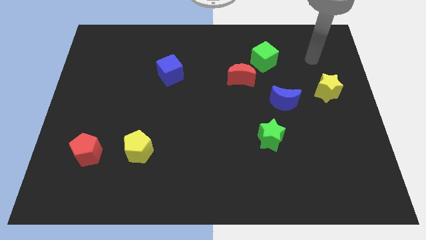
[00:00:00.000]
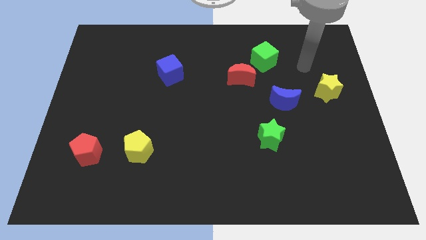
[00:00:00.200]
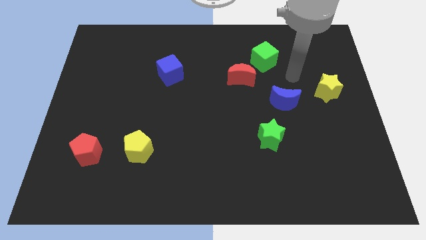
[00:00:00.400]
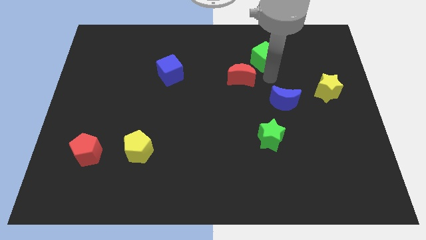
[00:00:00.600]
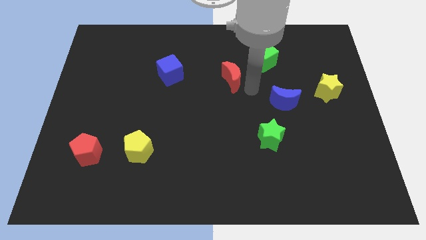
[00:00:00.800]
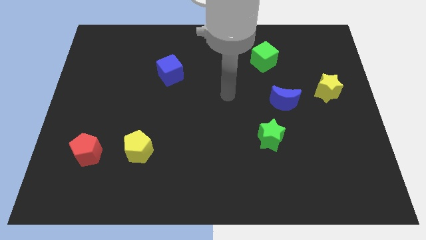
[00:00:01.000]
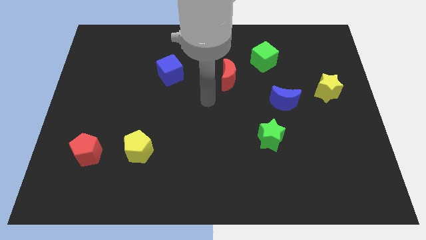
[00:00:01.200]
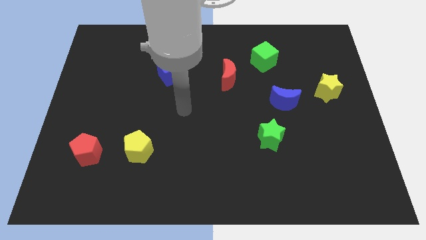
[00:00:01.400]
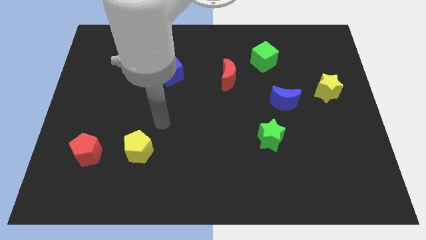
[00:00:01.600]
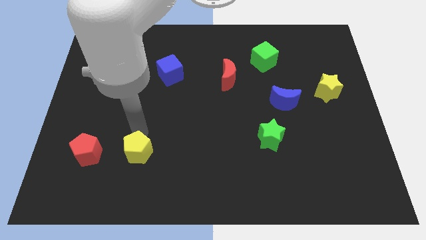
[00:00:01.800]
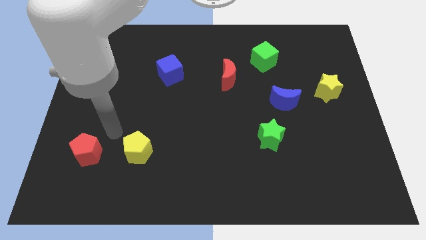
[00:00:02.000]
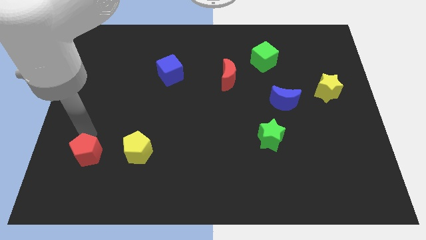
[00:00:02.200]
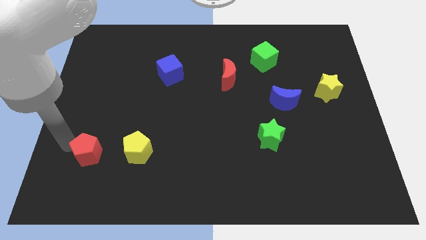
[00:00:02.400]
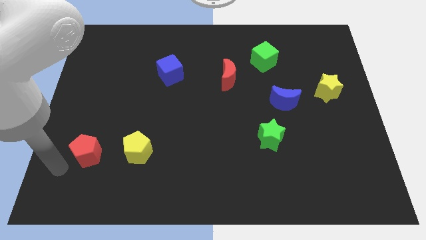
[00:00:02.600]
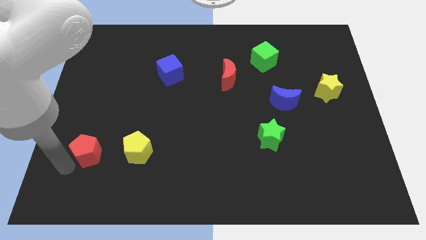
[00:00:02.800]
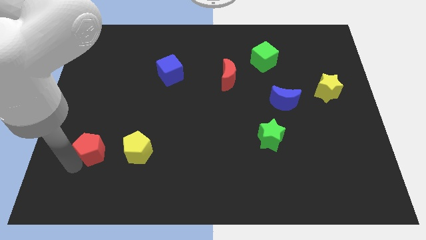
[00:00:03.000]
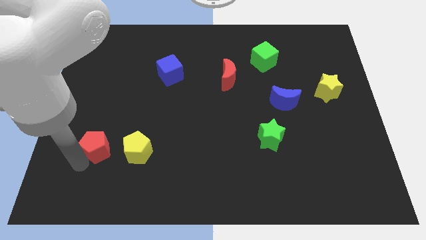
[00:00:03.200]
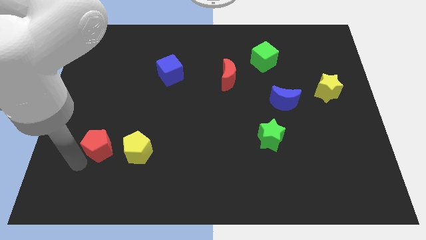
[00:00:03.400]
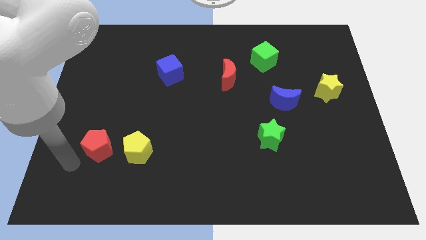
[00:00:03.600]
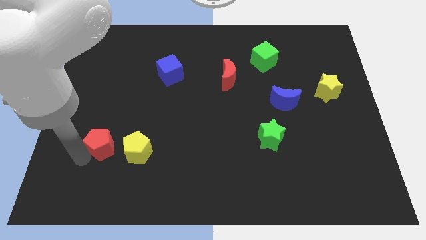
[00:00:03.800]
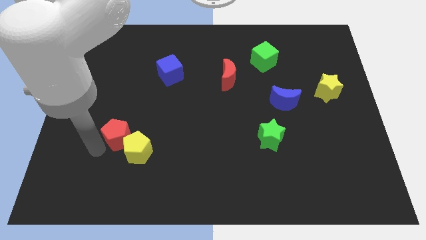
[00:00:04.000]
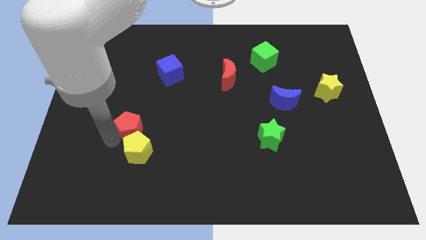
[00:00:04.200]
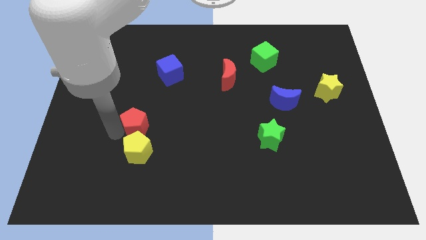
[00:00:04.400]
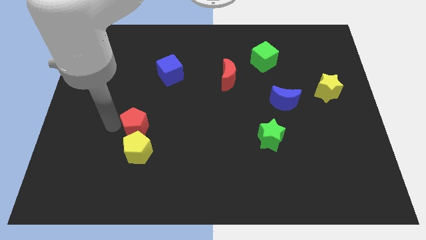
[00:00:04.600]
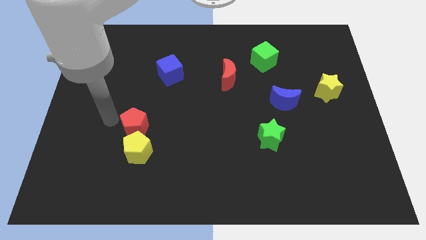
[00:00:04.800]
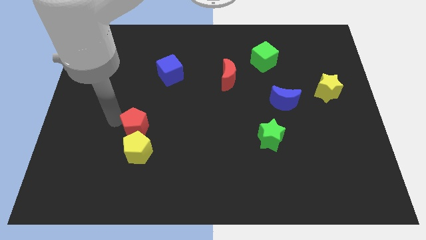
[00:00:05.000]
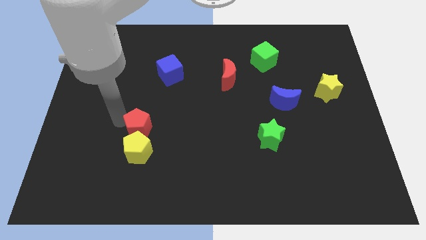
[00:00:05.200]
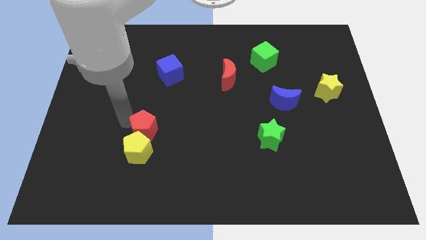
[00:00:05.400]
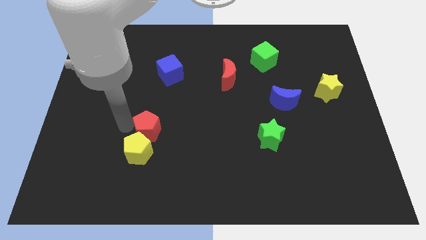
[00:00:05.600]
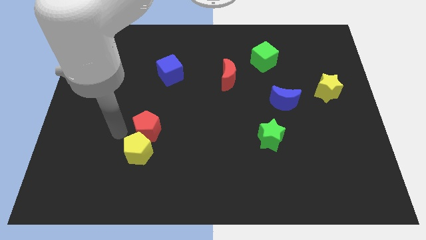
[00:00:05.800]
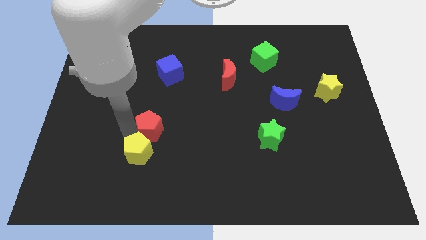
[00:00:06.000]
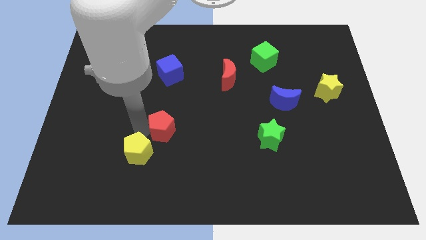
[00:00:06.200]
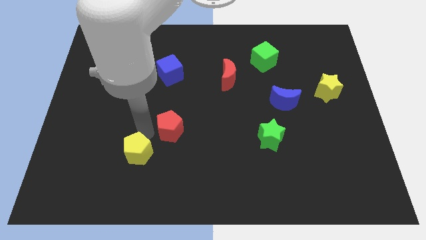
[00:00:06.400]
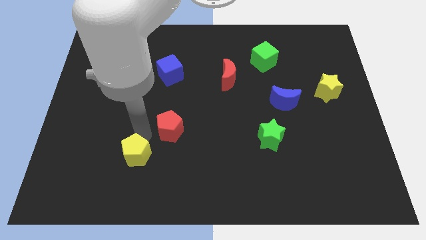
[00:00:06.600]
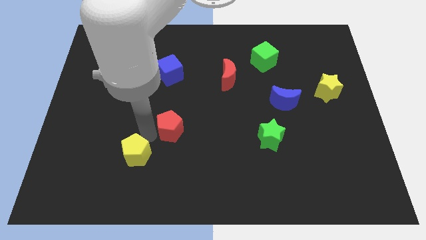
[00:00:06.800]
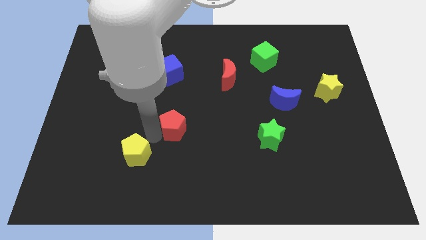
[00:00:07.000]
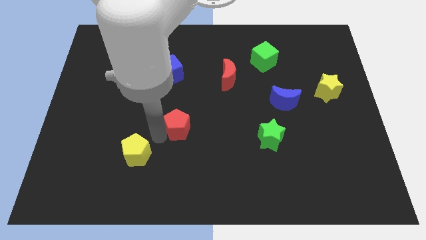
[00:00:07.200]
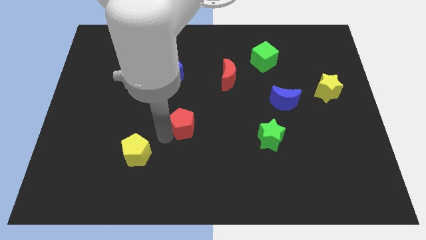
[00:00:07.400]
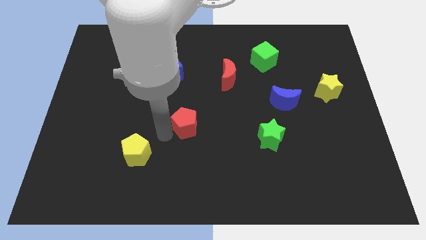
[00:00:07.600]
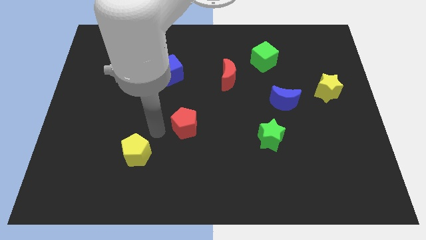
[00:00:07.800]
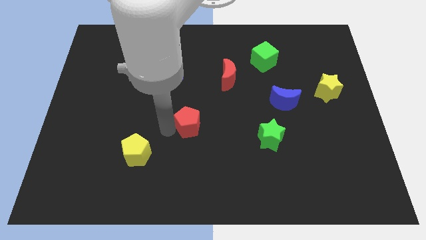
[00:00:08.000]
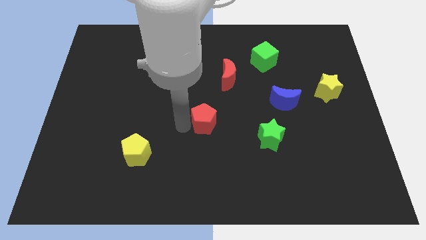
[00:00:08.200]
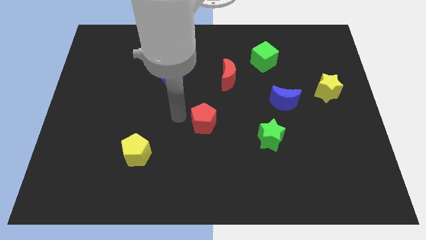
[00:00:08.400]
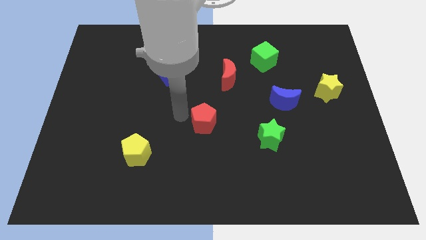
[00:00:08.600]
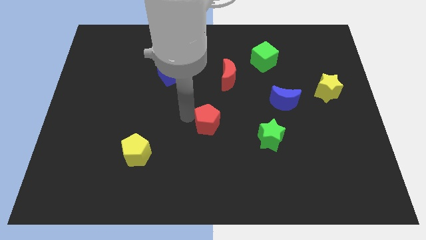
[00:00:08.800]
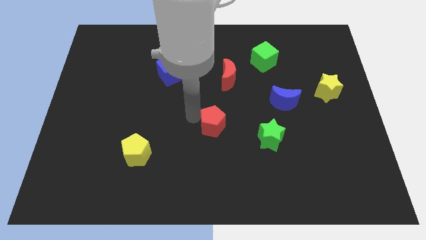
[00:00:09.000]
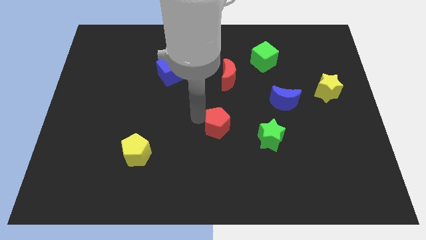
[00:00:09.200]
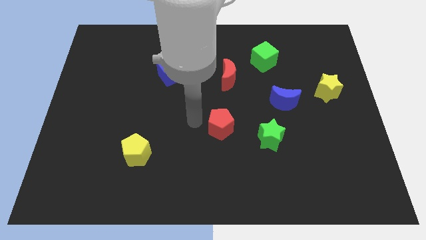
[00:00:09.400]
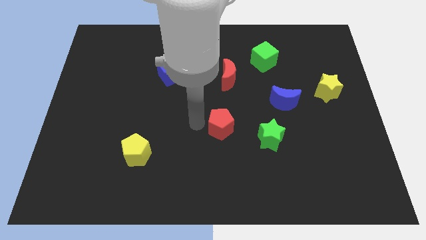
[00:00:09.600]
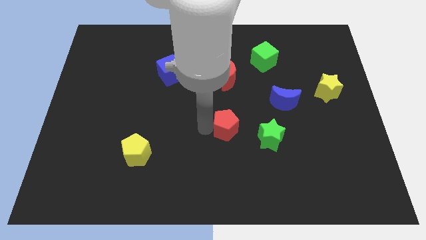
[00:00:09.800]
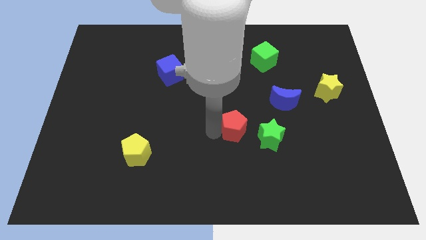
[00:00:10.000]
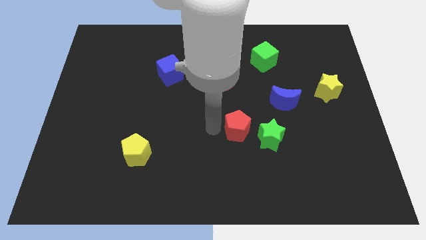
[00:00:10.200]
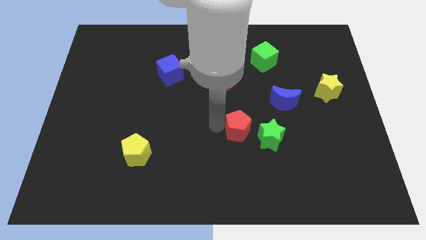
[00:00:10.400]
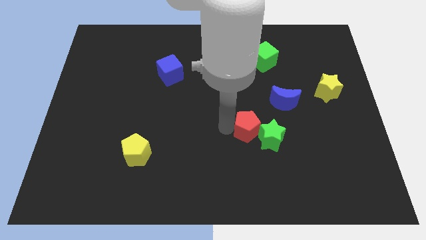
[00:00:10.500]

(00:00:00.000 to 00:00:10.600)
push the red pentagon close to the green star

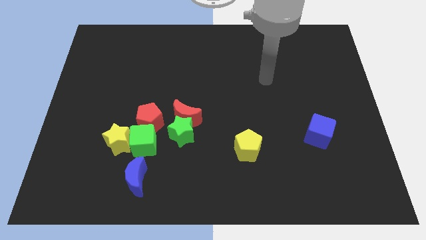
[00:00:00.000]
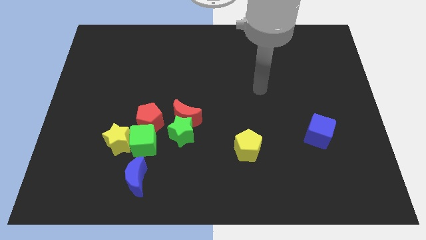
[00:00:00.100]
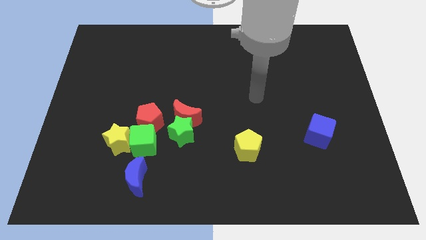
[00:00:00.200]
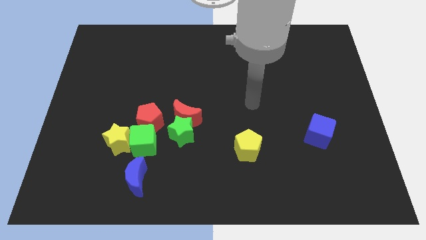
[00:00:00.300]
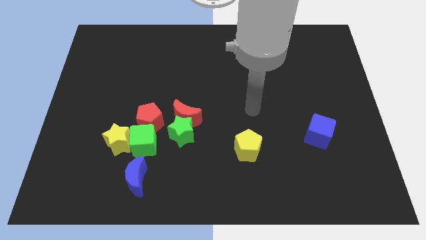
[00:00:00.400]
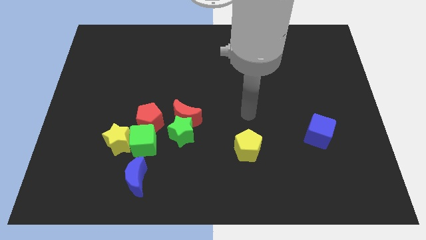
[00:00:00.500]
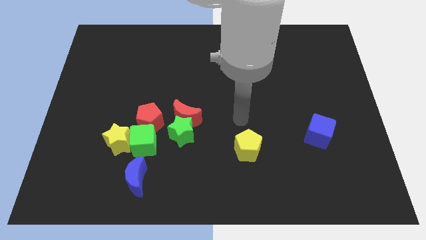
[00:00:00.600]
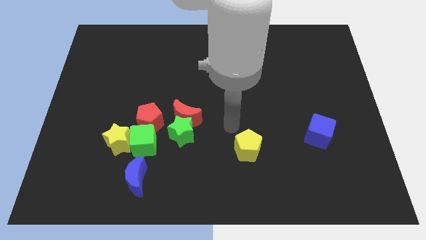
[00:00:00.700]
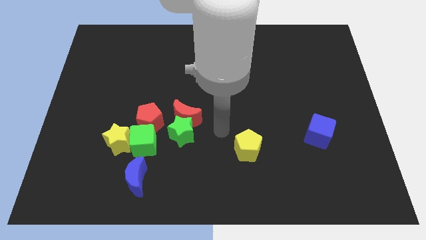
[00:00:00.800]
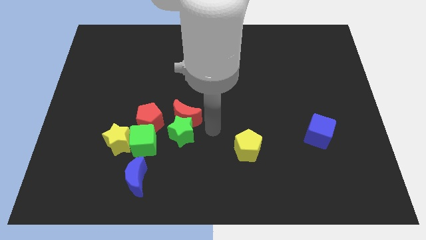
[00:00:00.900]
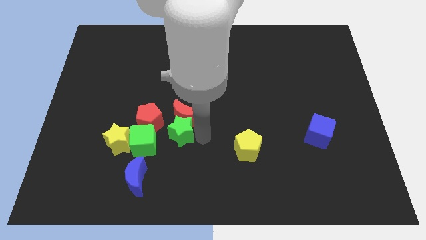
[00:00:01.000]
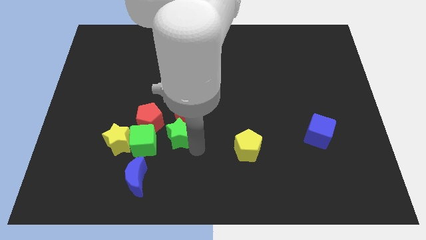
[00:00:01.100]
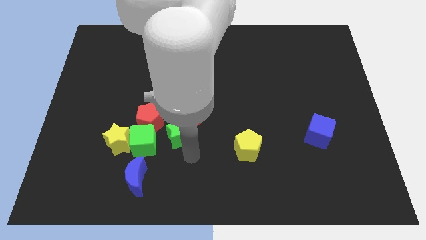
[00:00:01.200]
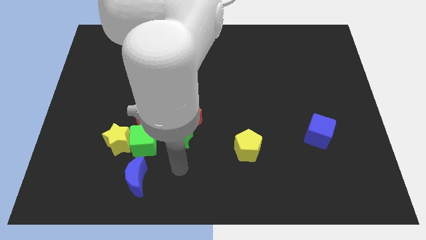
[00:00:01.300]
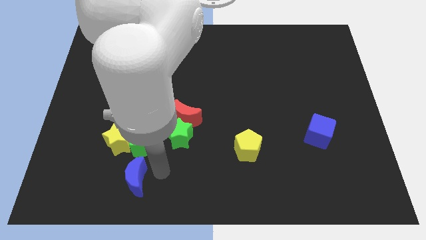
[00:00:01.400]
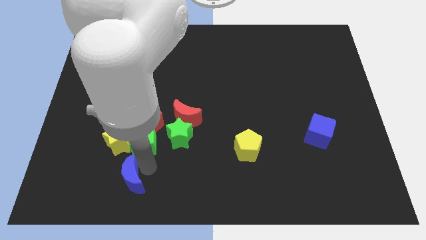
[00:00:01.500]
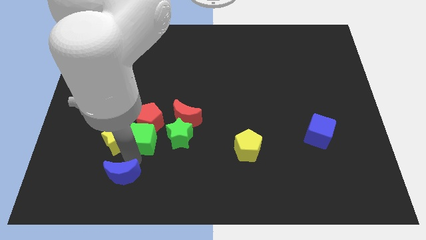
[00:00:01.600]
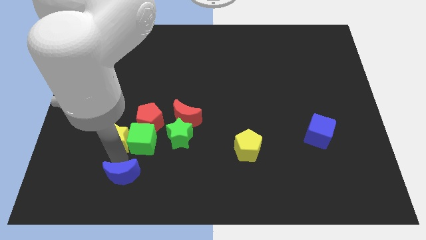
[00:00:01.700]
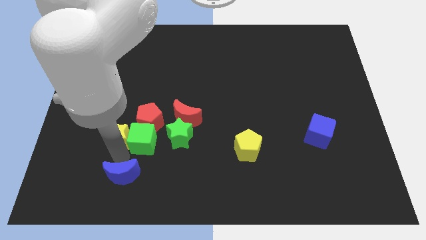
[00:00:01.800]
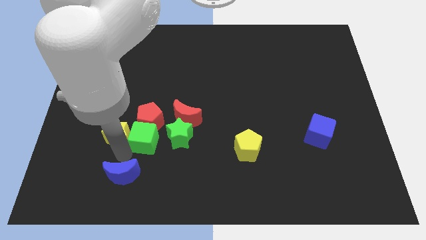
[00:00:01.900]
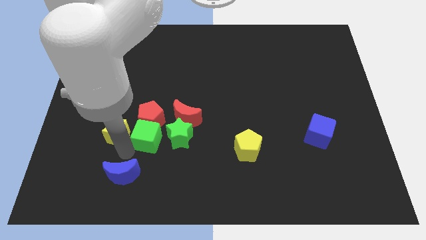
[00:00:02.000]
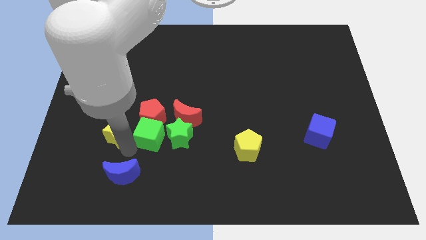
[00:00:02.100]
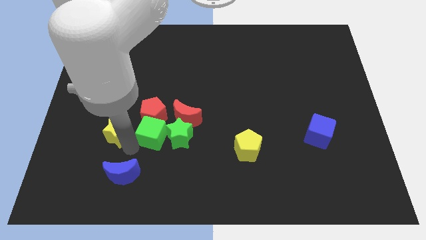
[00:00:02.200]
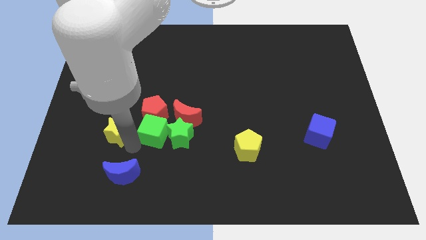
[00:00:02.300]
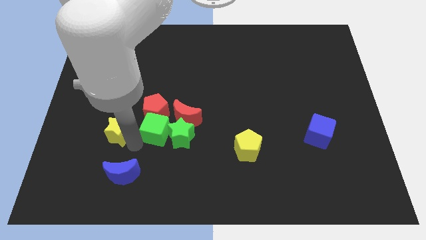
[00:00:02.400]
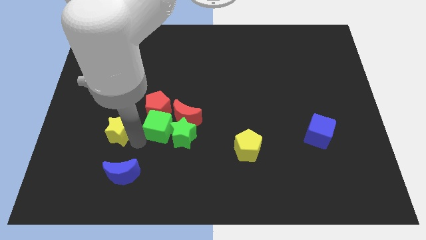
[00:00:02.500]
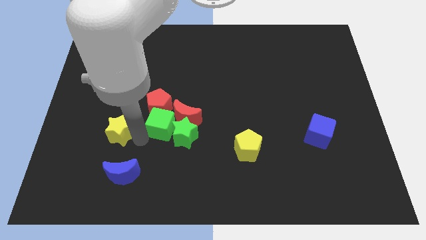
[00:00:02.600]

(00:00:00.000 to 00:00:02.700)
slide the green cube to the red moon
